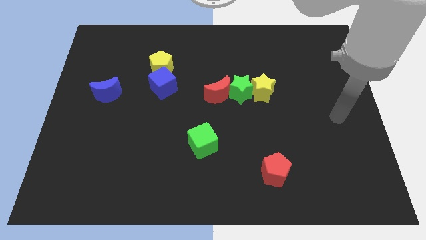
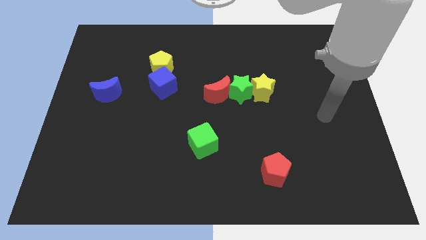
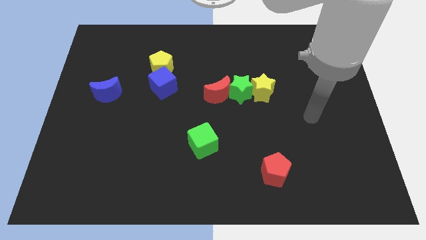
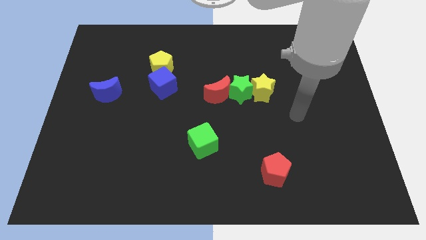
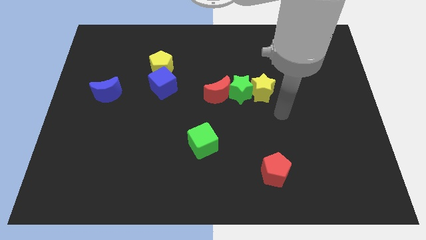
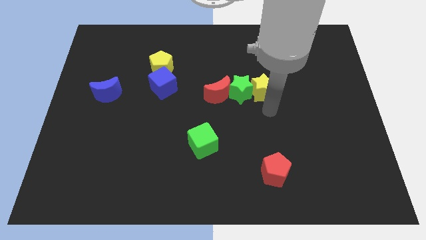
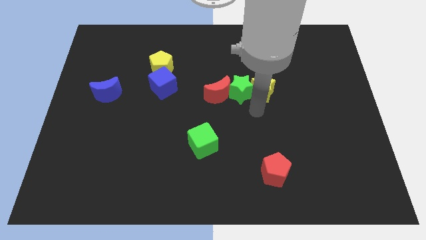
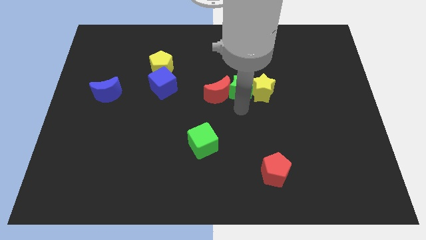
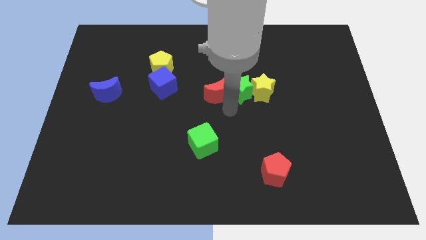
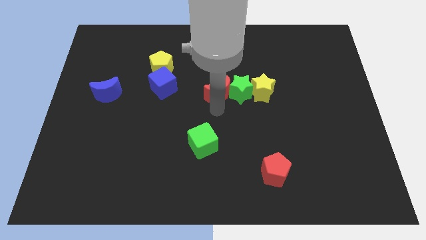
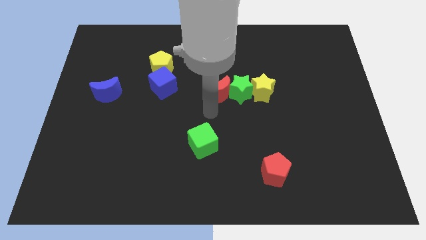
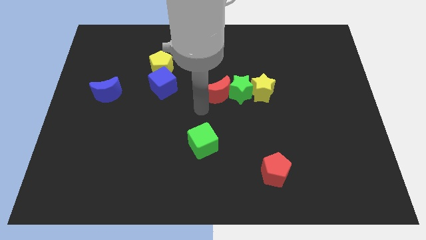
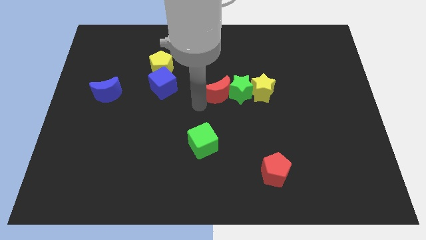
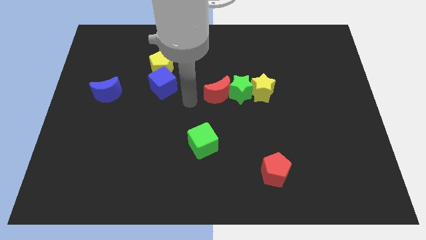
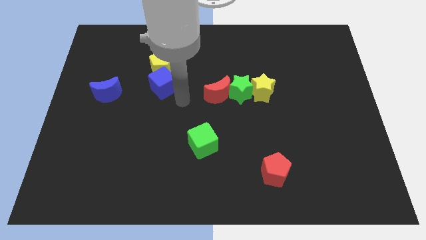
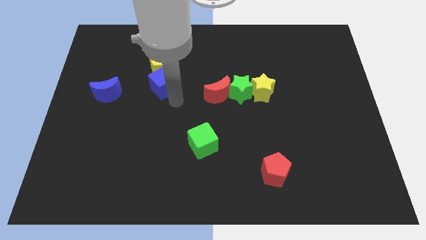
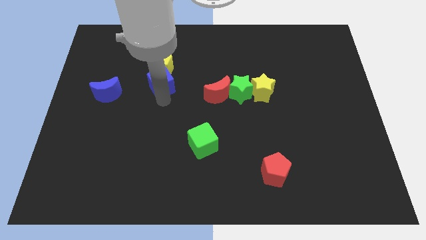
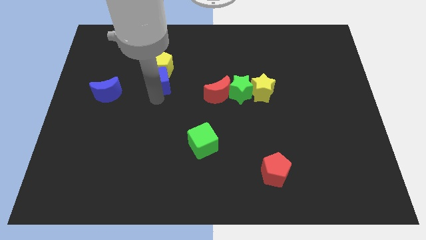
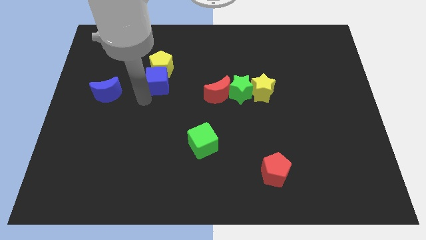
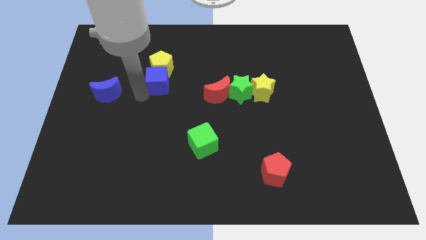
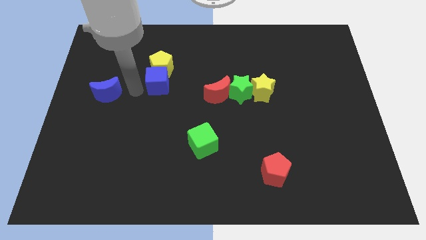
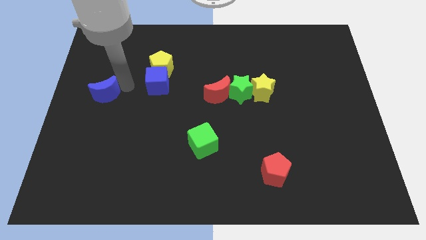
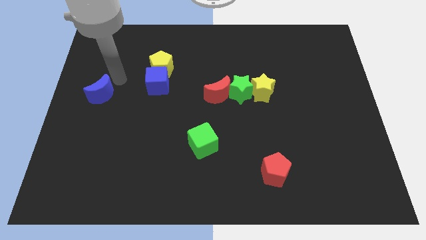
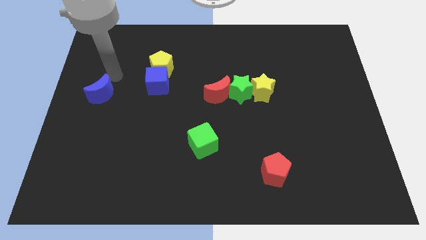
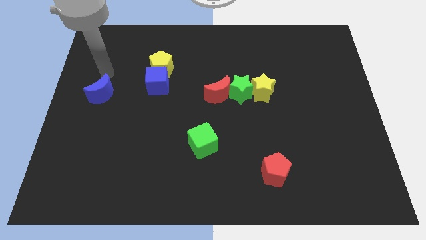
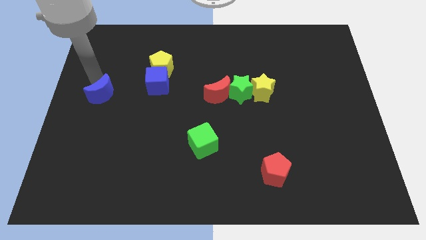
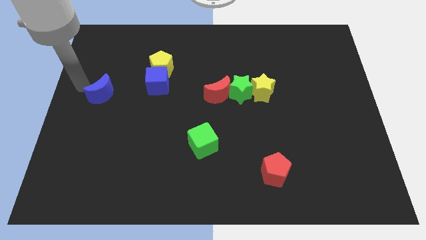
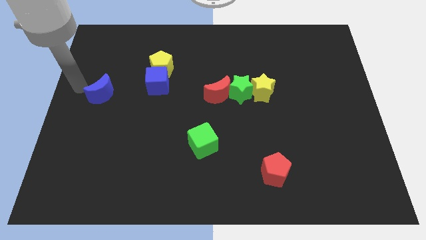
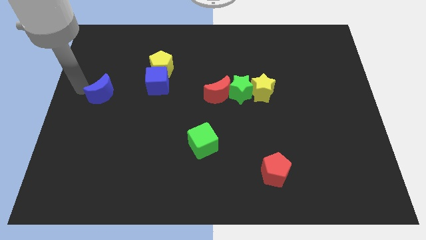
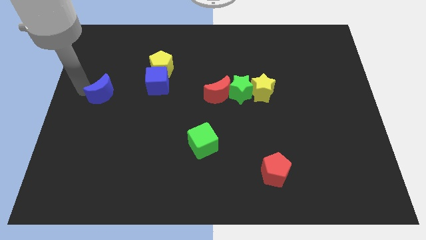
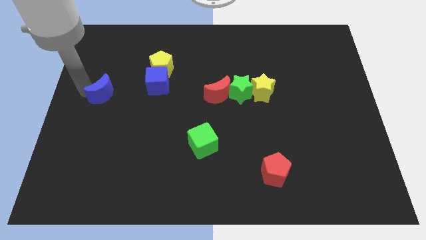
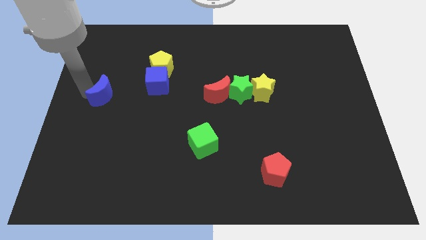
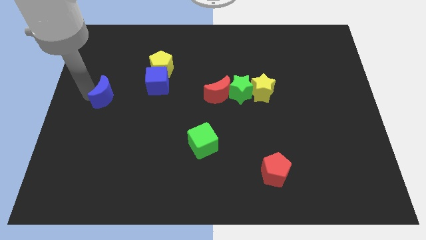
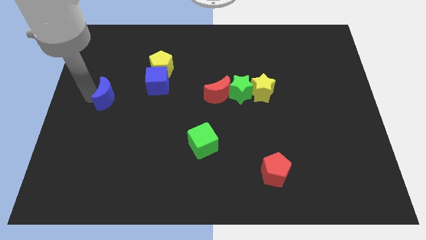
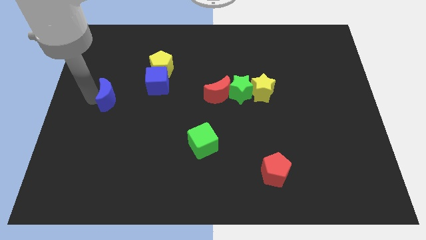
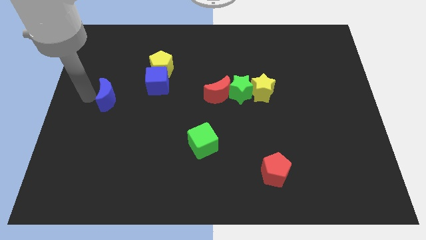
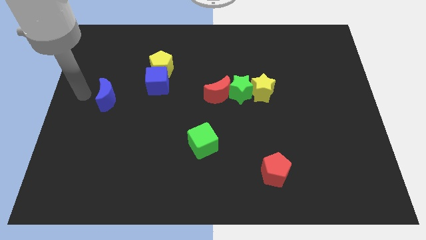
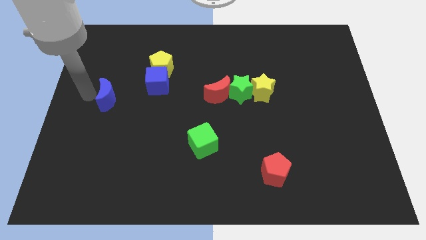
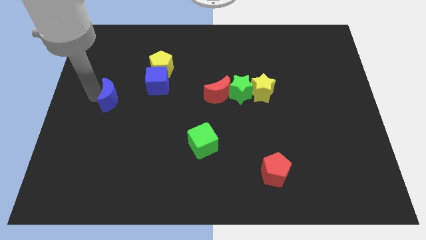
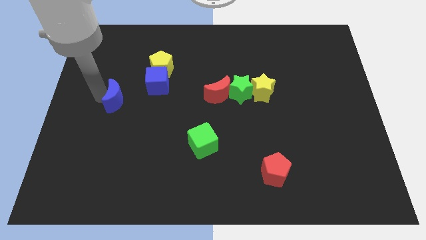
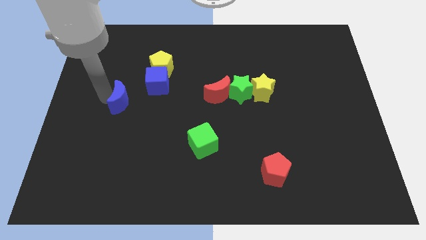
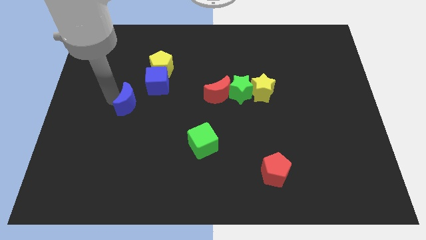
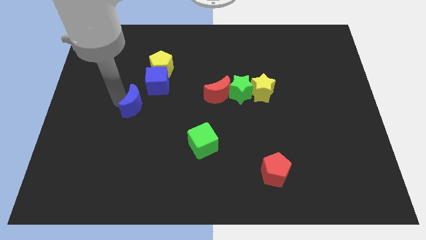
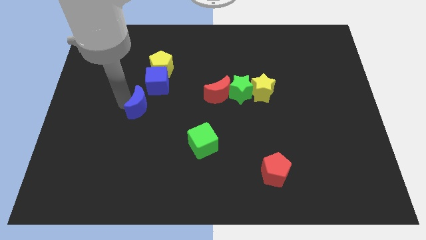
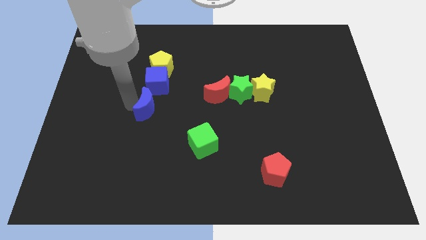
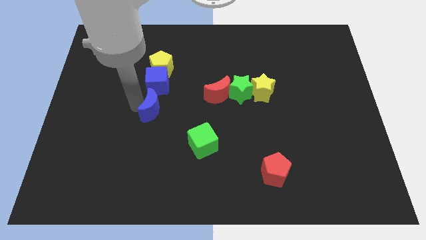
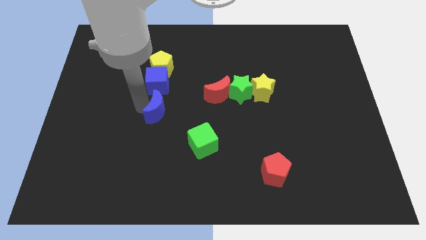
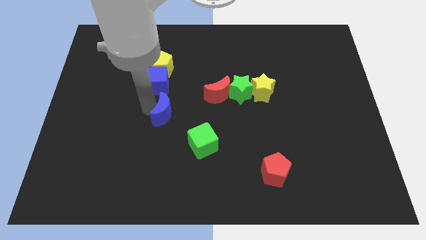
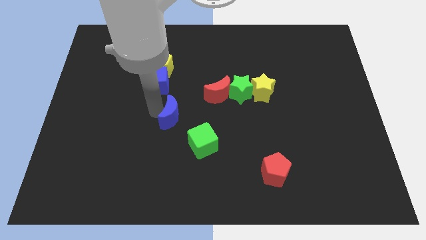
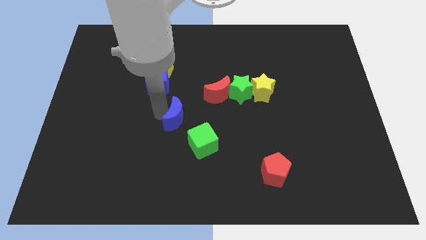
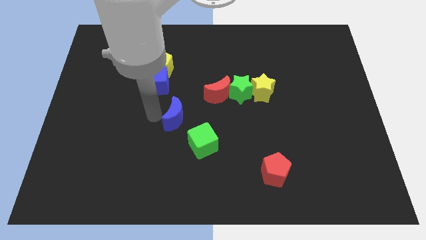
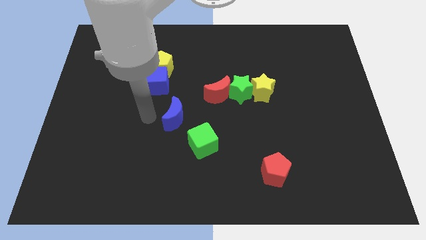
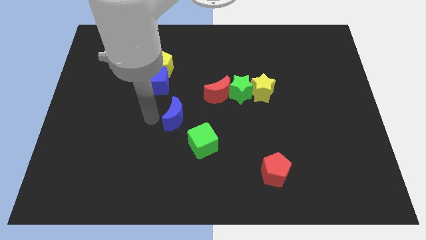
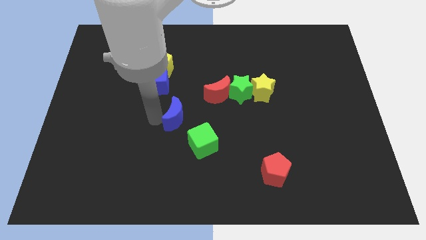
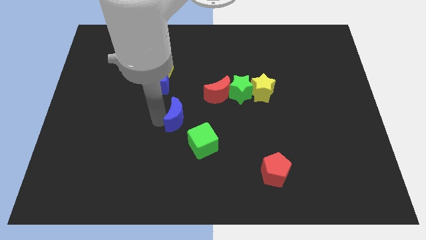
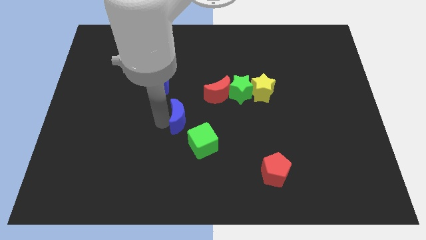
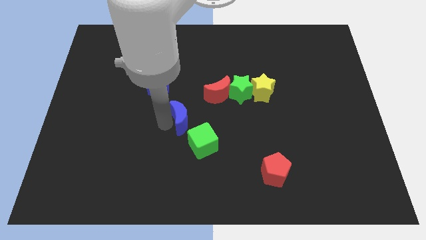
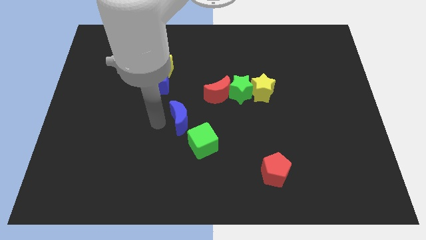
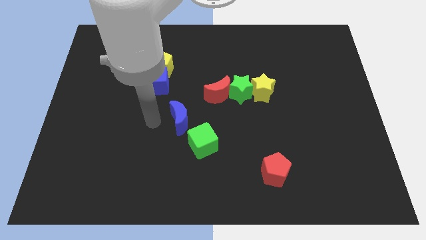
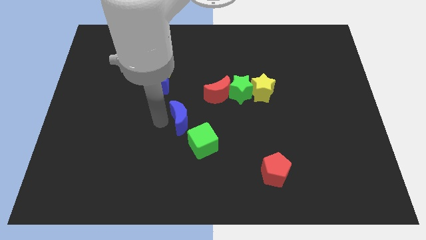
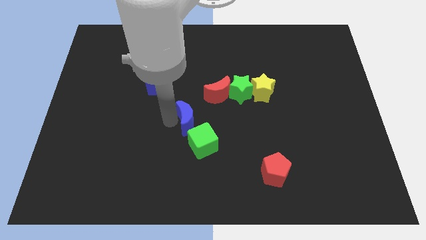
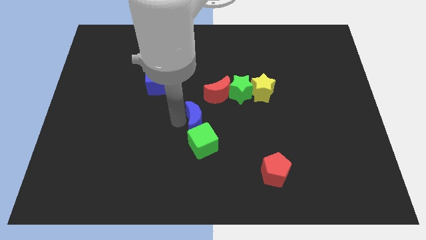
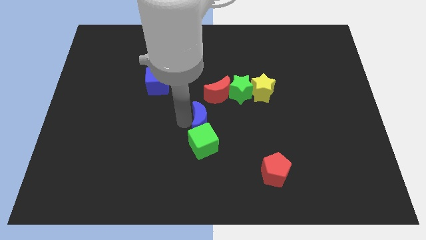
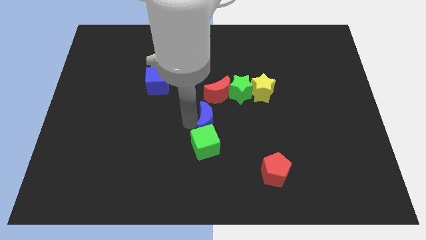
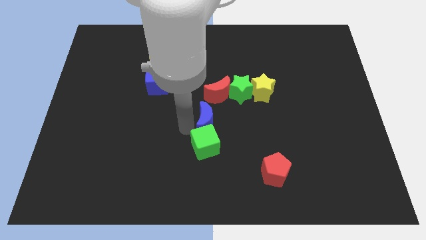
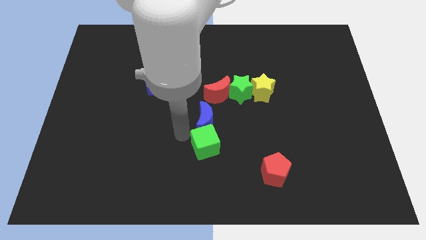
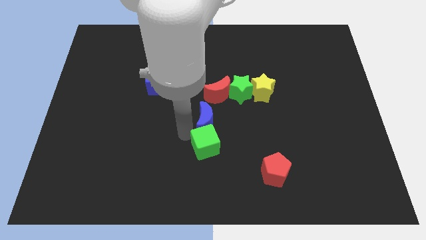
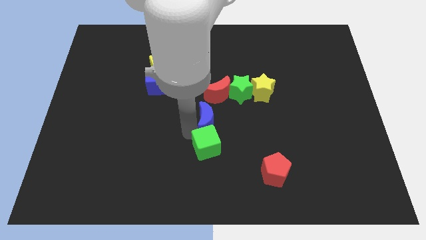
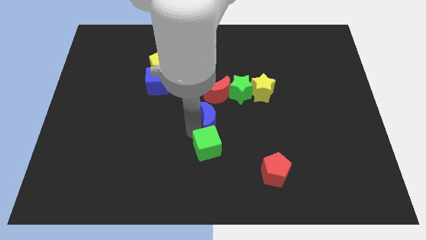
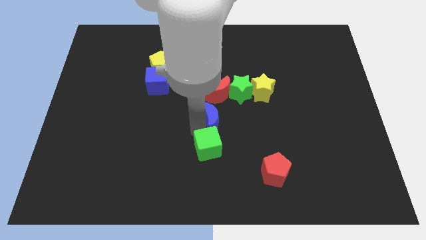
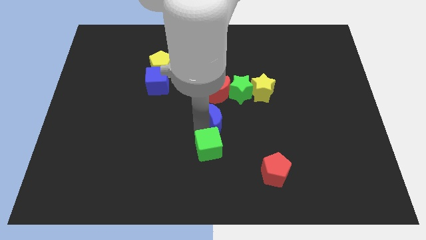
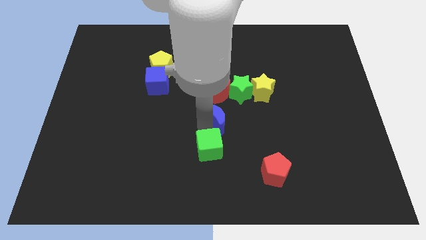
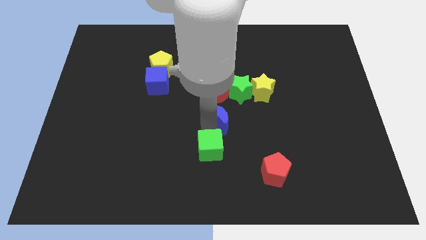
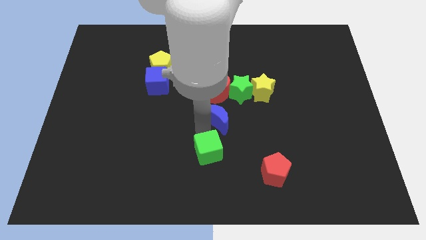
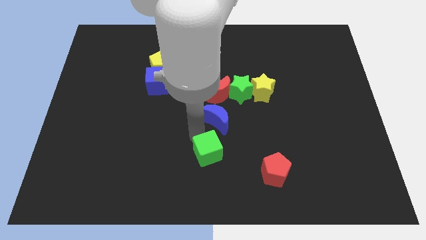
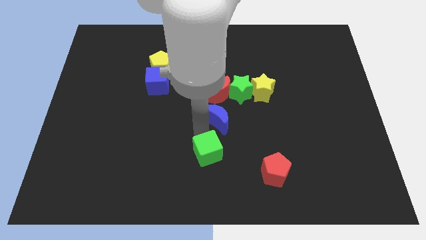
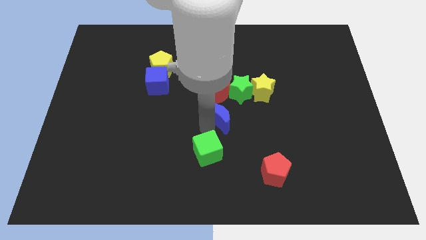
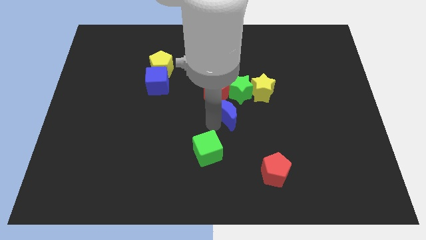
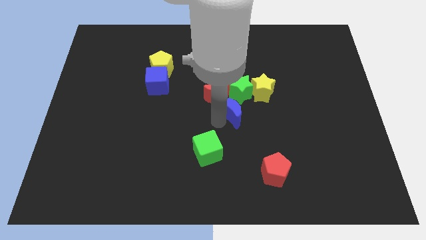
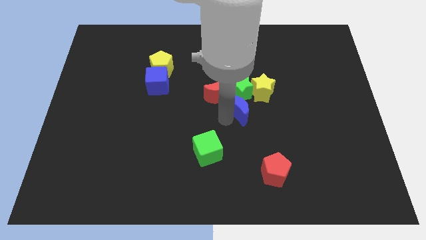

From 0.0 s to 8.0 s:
move the blue moon close to the green star
